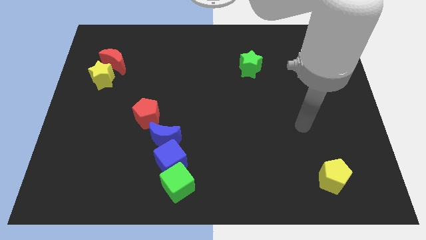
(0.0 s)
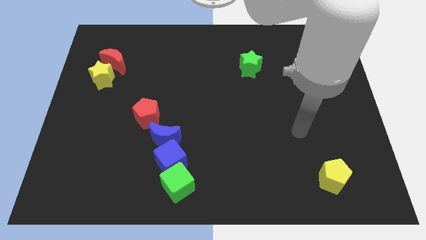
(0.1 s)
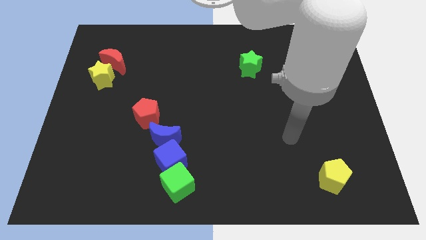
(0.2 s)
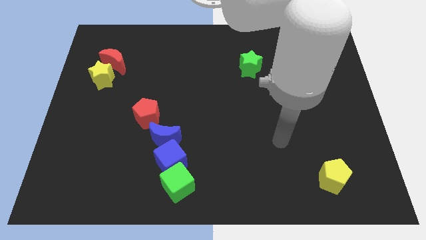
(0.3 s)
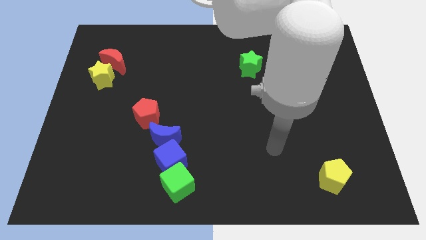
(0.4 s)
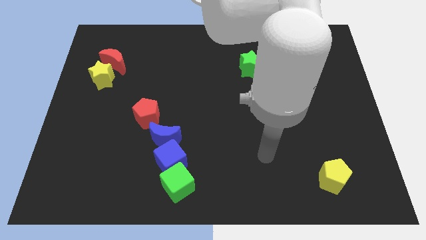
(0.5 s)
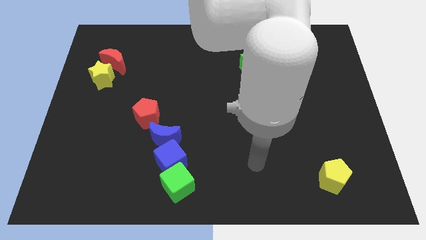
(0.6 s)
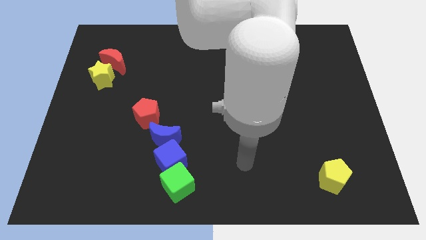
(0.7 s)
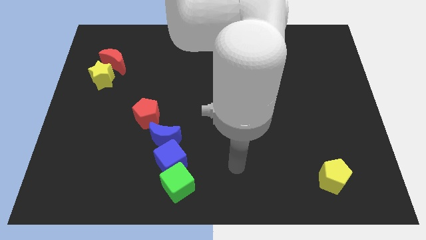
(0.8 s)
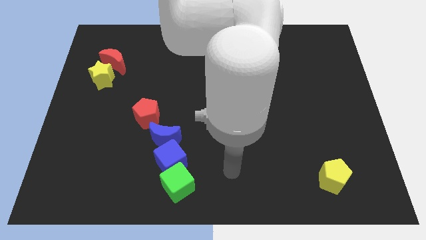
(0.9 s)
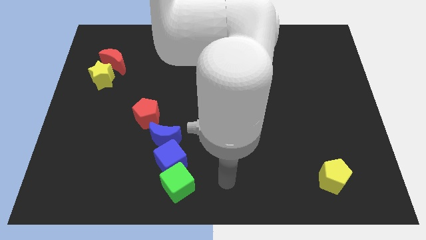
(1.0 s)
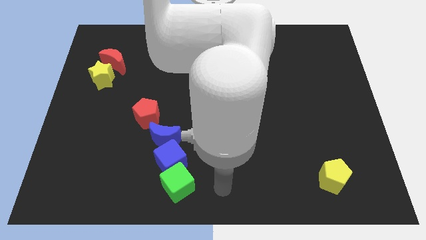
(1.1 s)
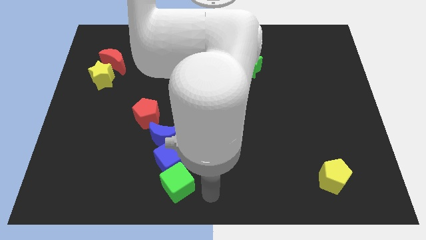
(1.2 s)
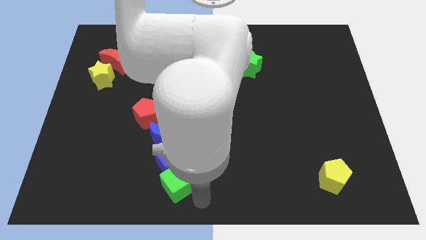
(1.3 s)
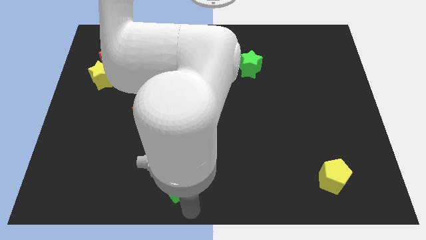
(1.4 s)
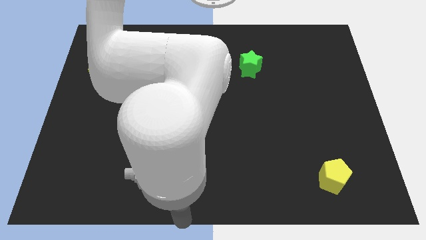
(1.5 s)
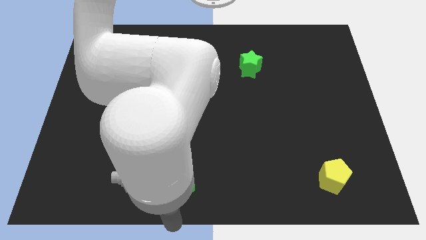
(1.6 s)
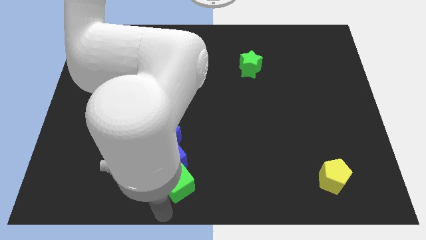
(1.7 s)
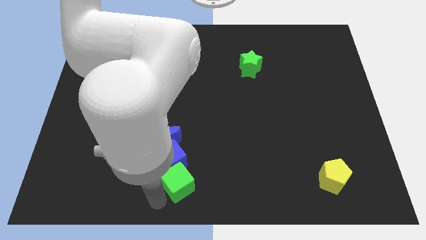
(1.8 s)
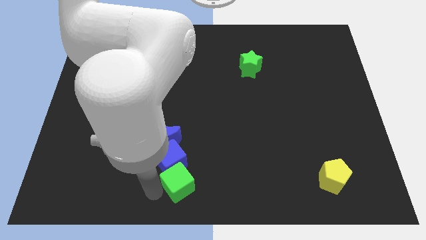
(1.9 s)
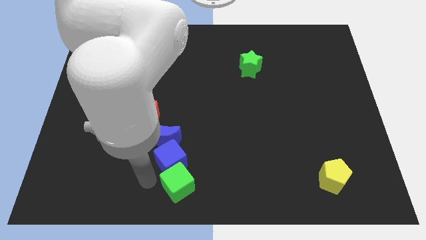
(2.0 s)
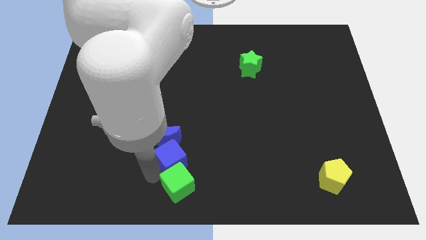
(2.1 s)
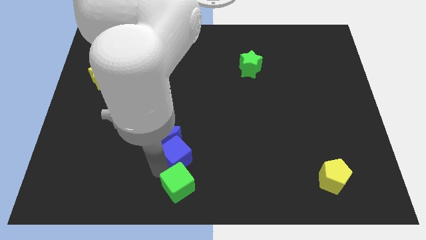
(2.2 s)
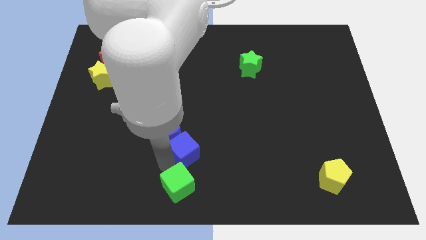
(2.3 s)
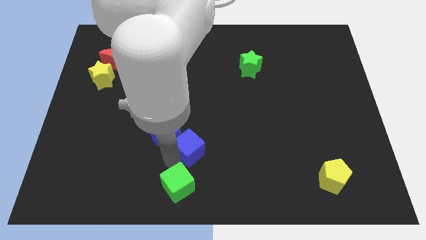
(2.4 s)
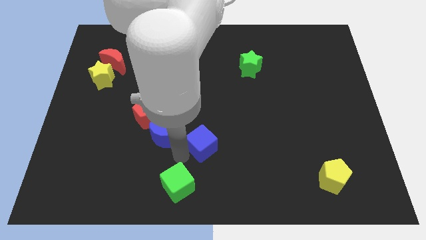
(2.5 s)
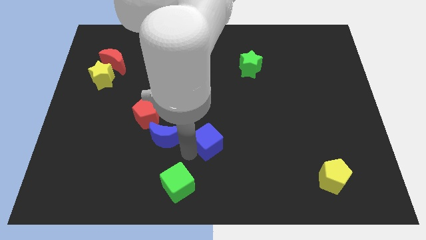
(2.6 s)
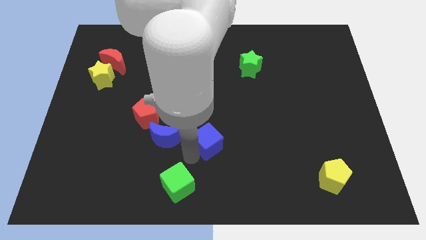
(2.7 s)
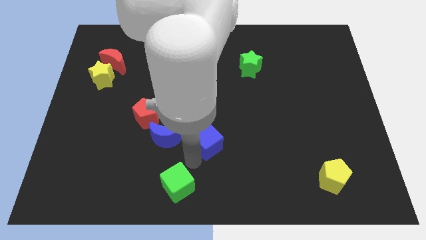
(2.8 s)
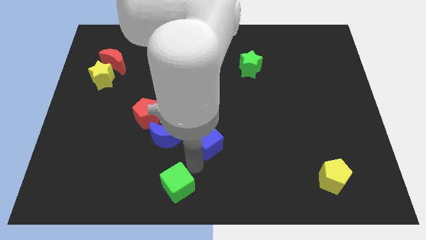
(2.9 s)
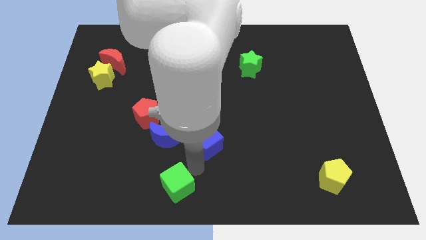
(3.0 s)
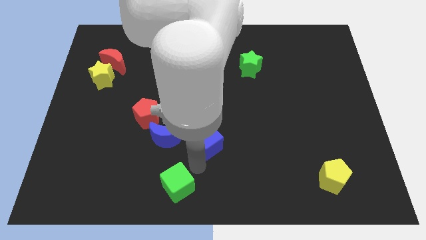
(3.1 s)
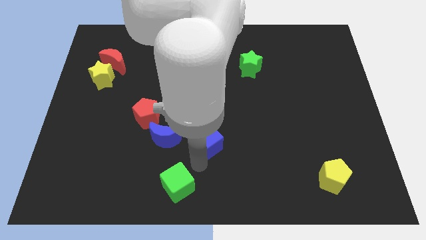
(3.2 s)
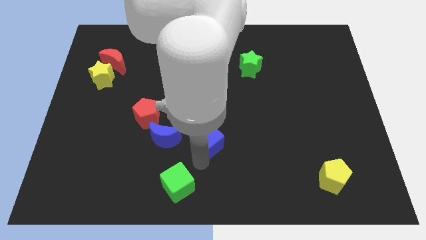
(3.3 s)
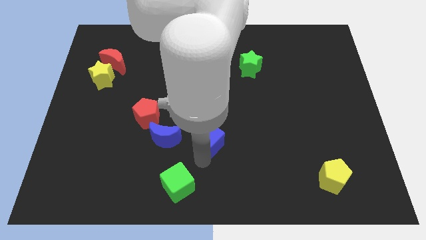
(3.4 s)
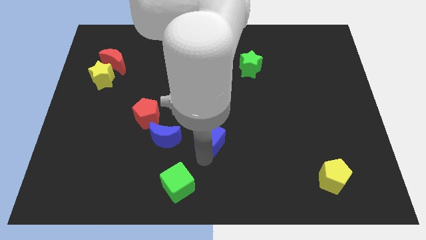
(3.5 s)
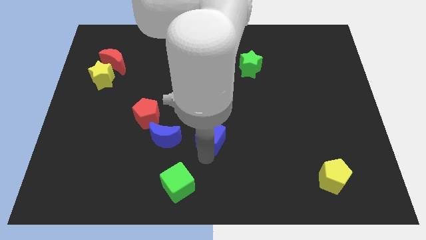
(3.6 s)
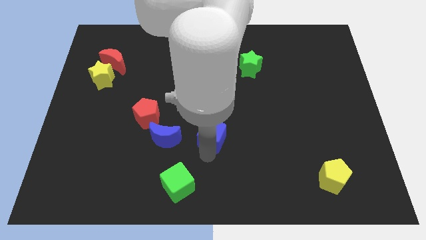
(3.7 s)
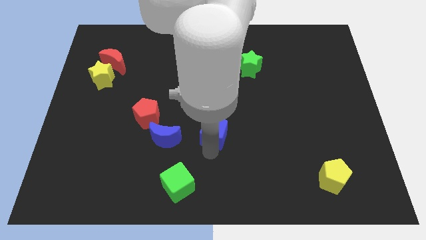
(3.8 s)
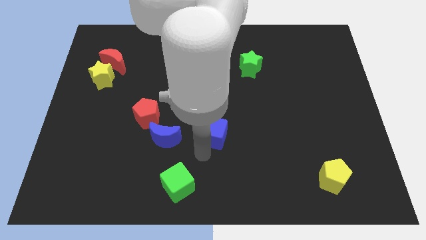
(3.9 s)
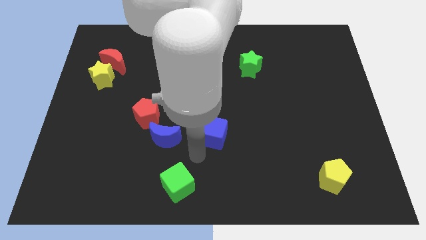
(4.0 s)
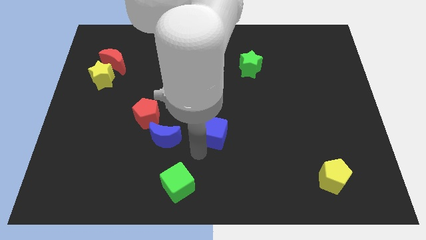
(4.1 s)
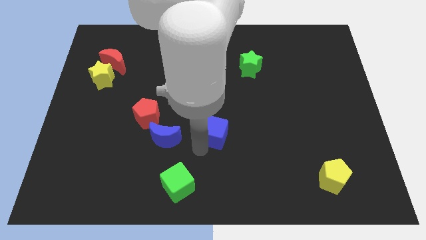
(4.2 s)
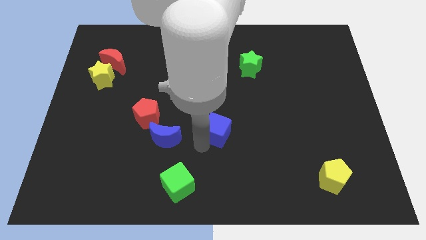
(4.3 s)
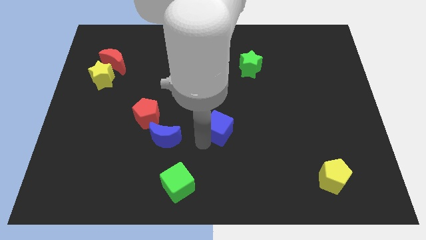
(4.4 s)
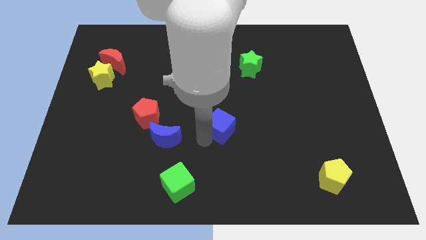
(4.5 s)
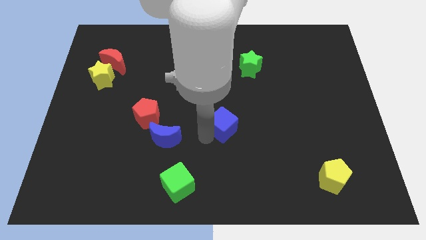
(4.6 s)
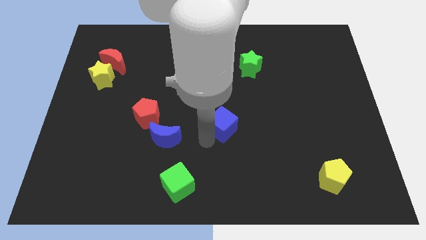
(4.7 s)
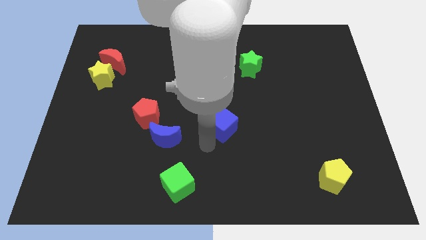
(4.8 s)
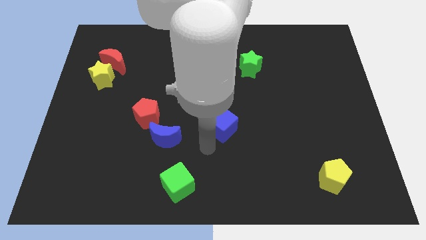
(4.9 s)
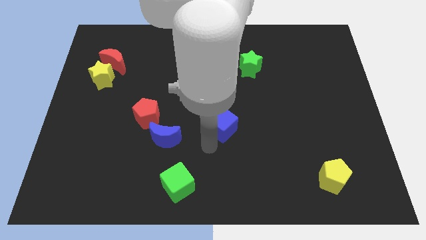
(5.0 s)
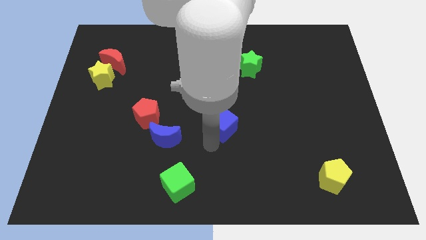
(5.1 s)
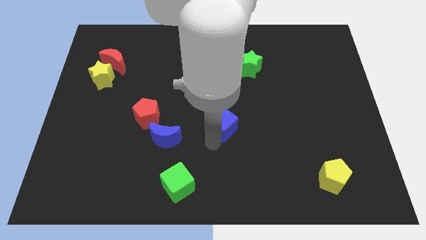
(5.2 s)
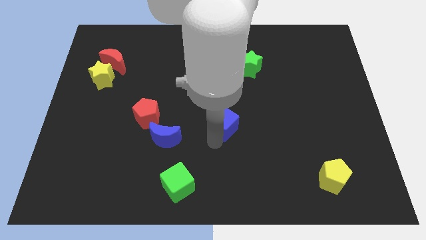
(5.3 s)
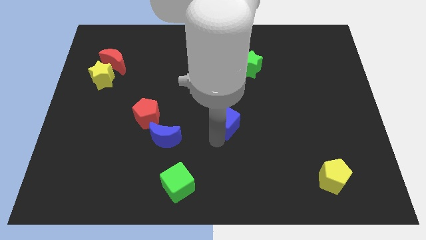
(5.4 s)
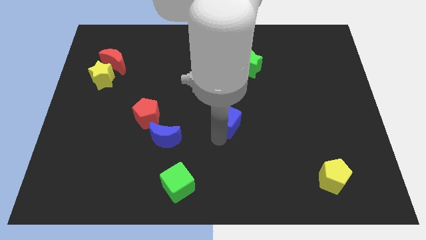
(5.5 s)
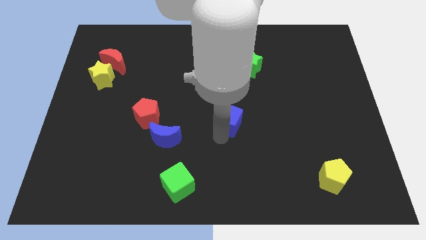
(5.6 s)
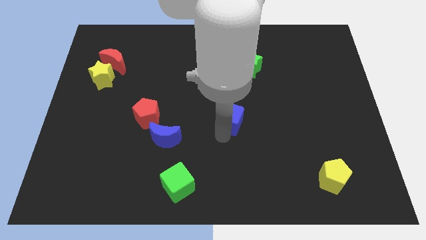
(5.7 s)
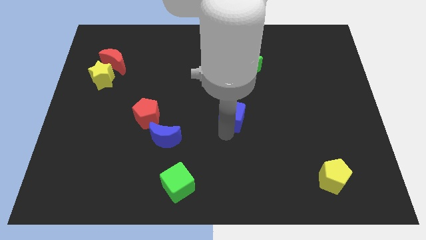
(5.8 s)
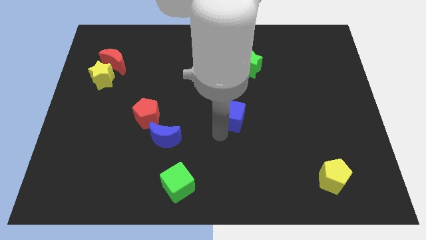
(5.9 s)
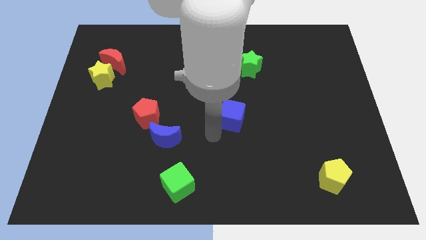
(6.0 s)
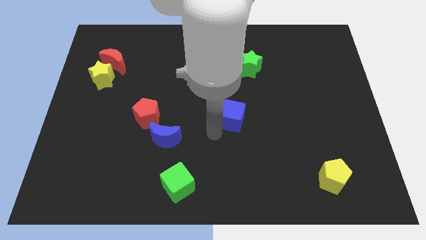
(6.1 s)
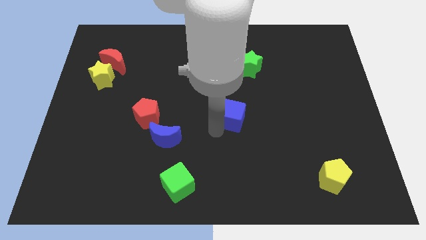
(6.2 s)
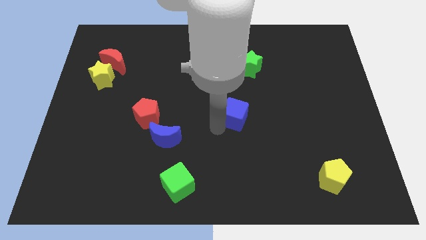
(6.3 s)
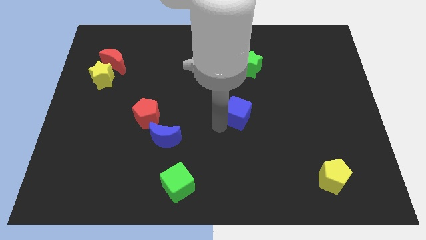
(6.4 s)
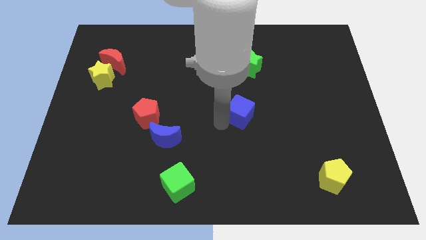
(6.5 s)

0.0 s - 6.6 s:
push the blue cube to the bottom side of the green star

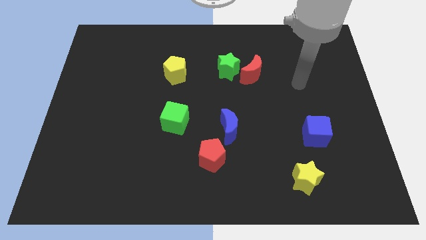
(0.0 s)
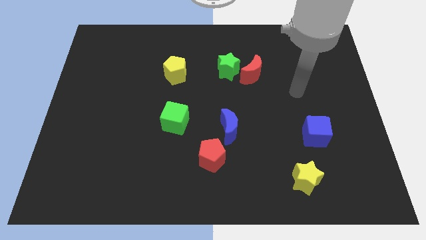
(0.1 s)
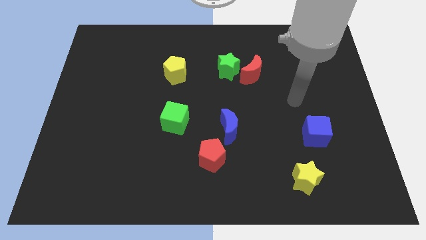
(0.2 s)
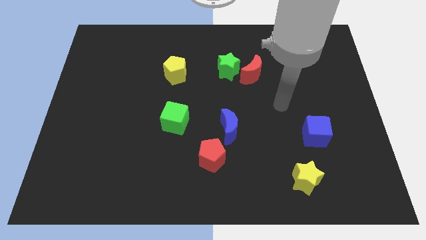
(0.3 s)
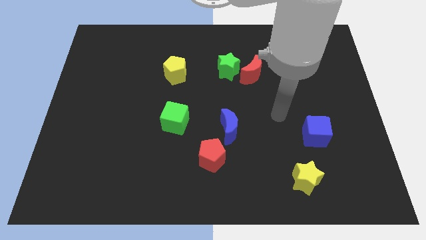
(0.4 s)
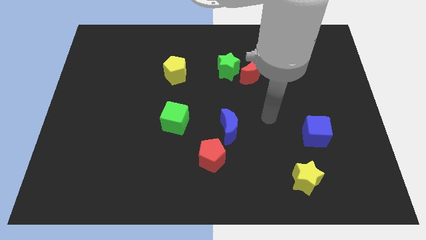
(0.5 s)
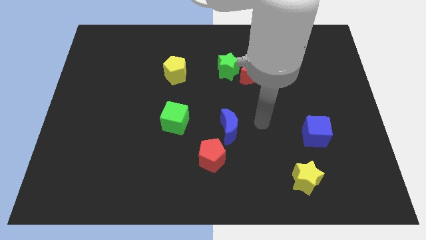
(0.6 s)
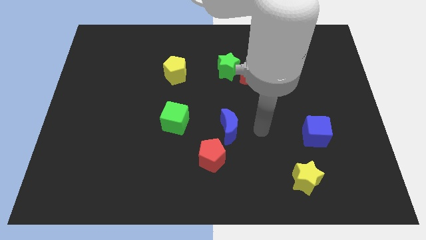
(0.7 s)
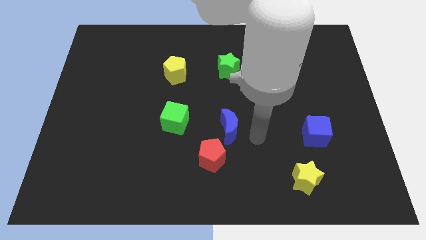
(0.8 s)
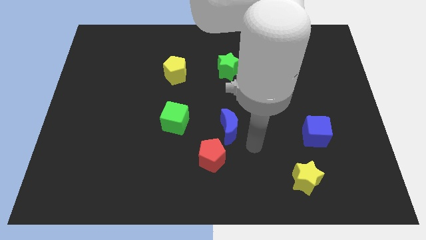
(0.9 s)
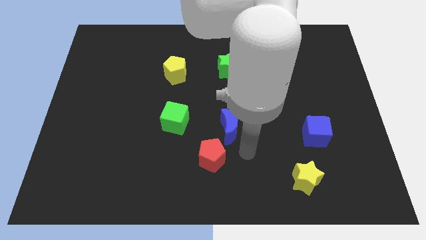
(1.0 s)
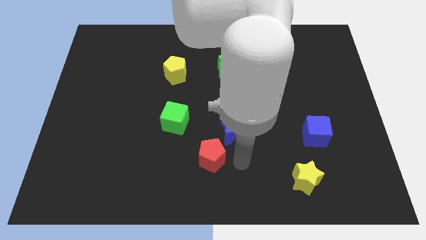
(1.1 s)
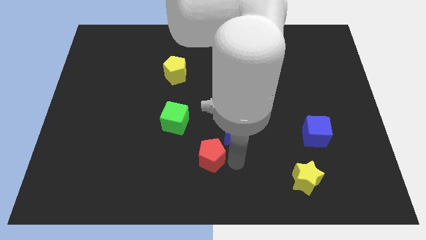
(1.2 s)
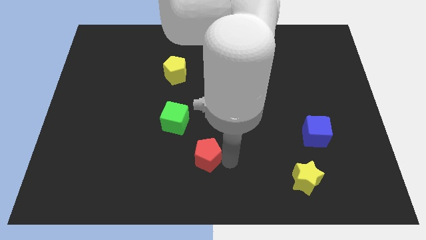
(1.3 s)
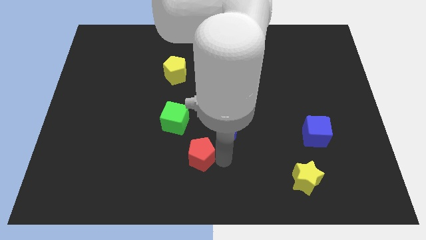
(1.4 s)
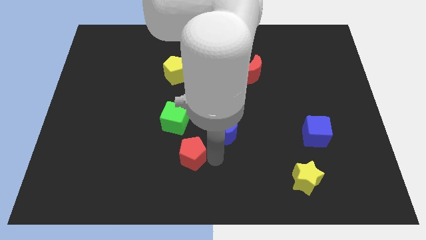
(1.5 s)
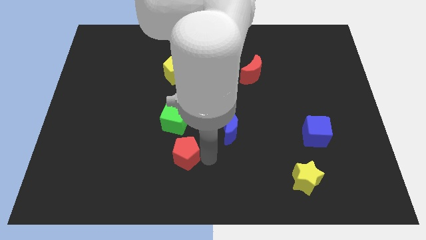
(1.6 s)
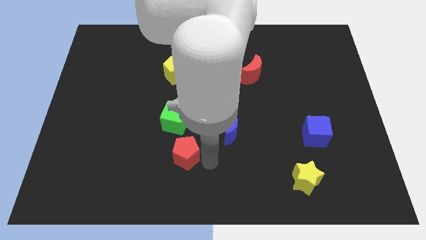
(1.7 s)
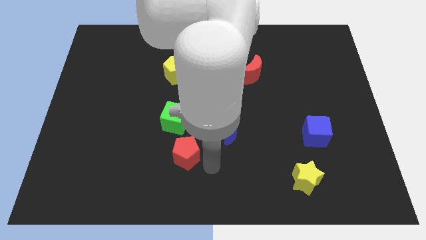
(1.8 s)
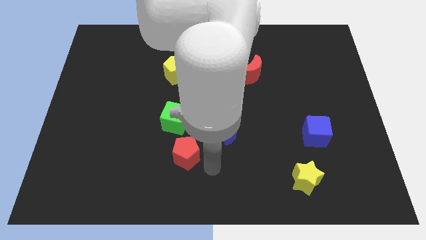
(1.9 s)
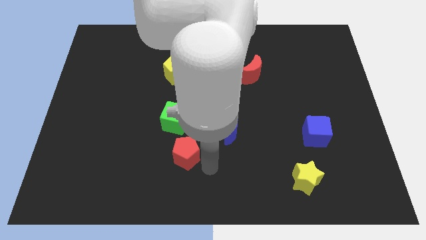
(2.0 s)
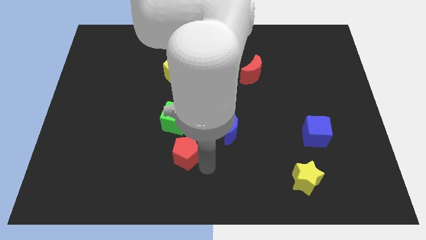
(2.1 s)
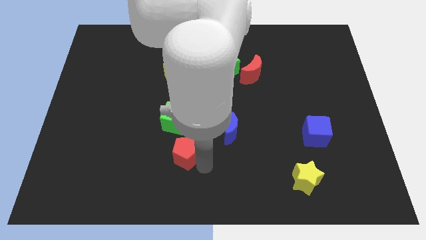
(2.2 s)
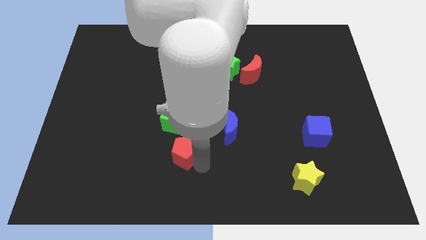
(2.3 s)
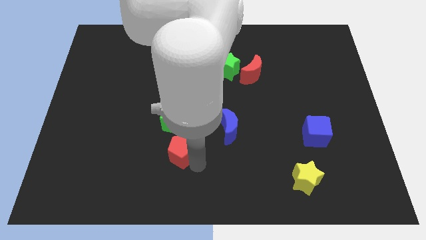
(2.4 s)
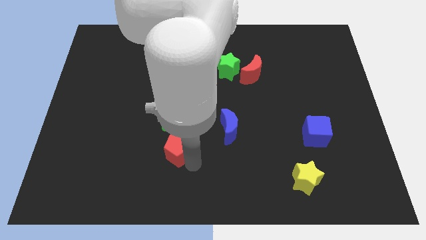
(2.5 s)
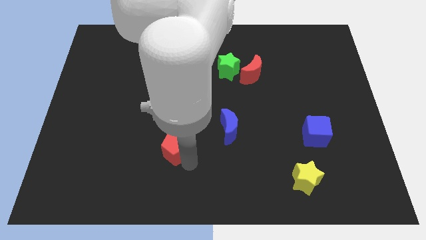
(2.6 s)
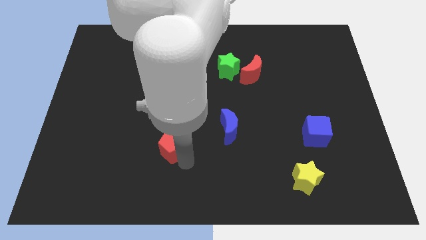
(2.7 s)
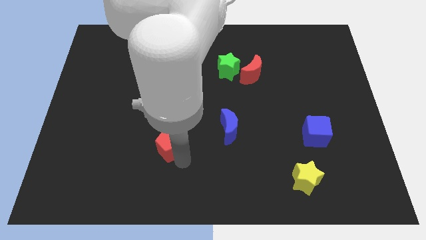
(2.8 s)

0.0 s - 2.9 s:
push the red pentagon to the bottom left side of the green cube
